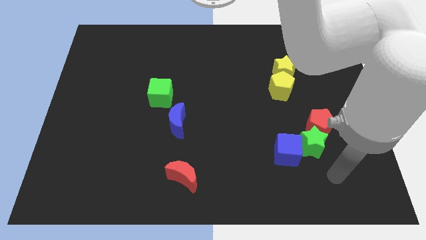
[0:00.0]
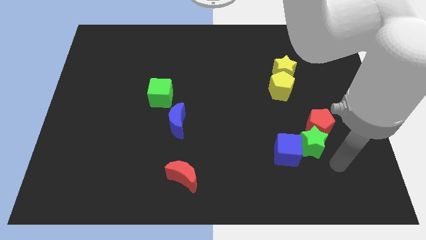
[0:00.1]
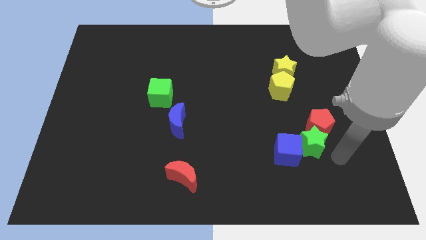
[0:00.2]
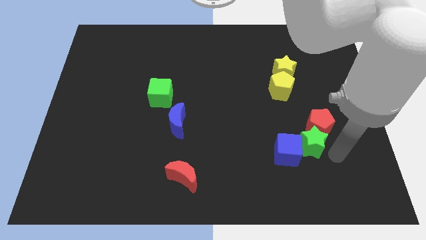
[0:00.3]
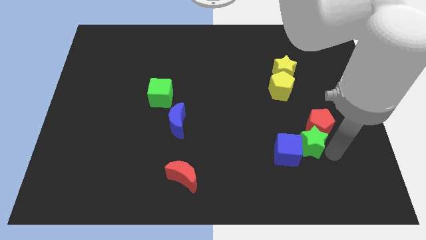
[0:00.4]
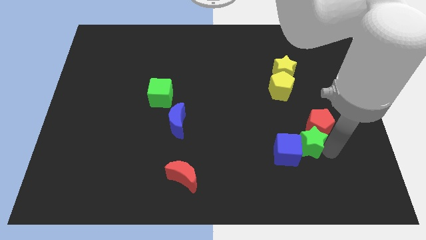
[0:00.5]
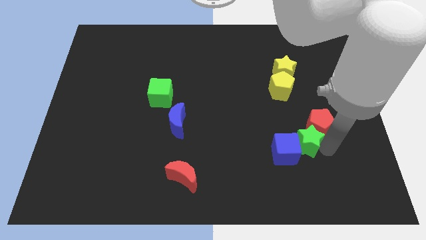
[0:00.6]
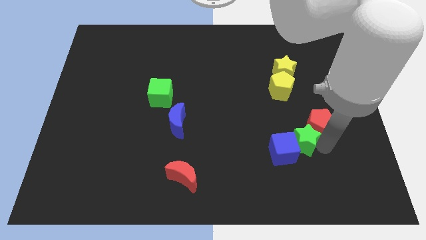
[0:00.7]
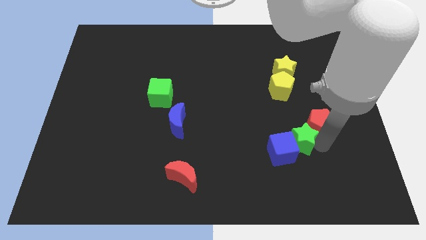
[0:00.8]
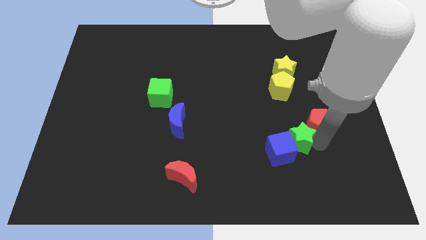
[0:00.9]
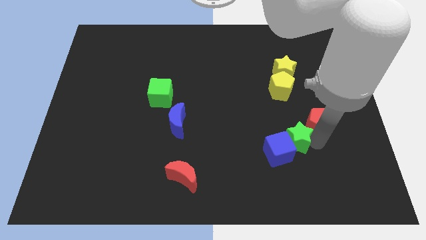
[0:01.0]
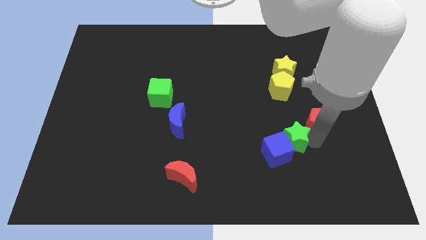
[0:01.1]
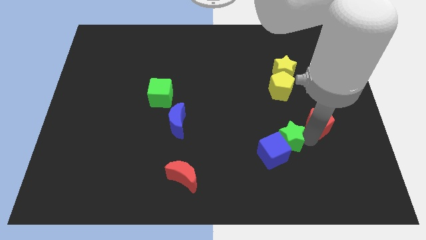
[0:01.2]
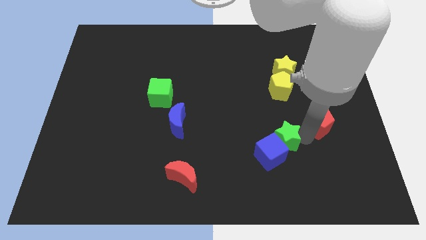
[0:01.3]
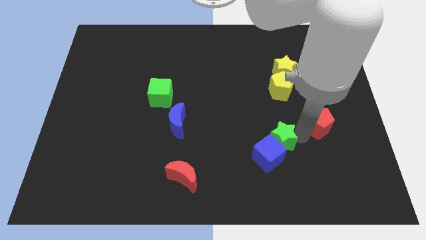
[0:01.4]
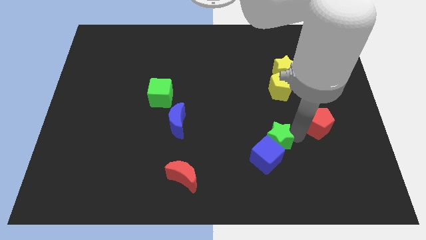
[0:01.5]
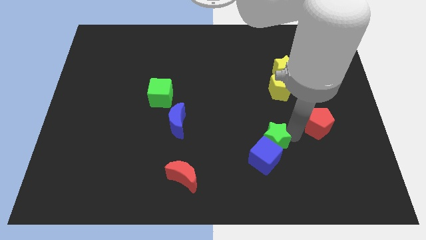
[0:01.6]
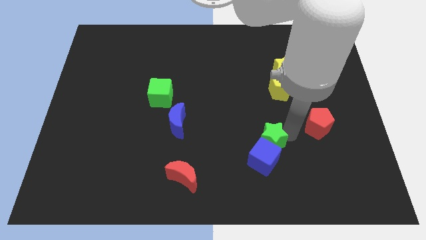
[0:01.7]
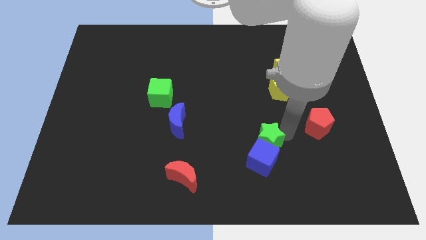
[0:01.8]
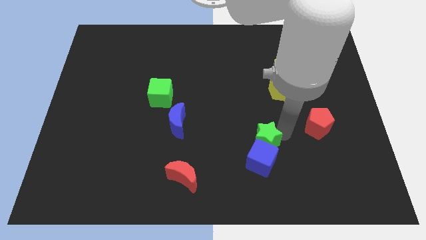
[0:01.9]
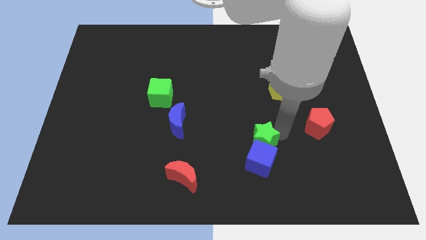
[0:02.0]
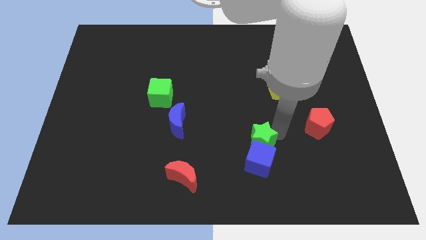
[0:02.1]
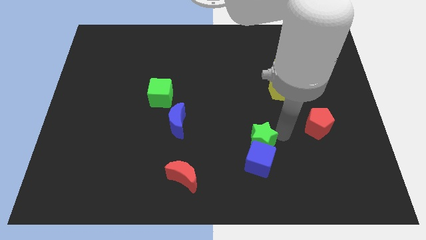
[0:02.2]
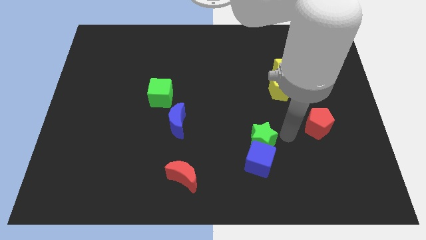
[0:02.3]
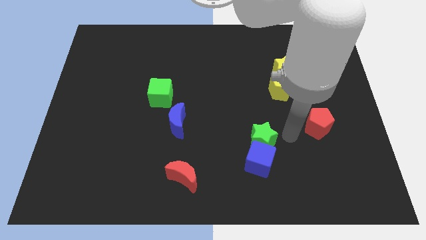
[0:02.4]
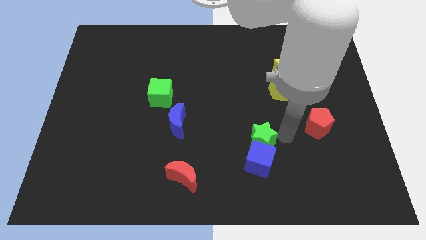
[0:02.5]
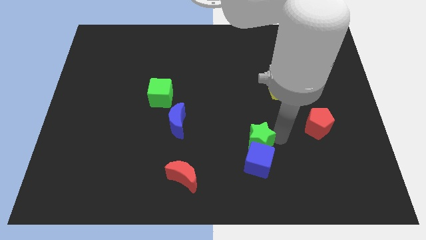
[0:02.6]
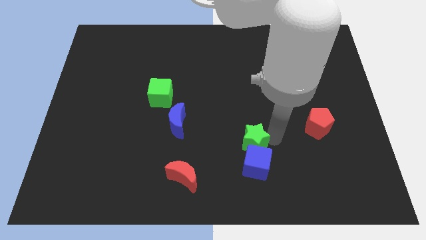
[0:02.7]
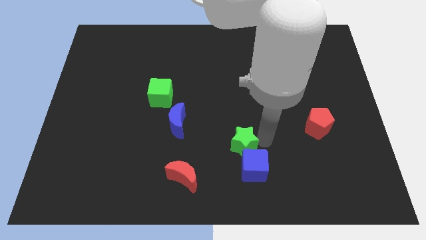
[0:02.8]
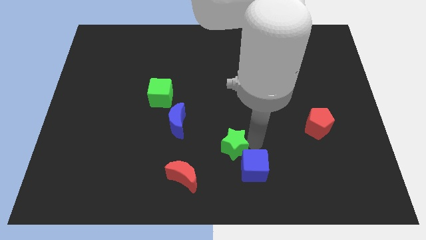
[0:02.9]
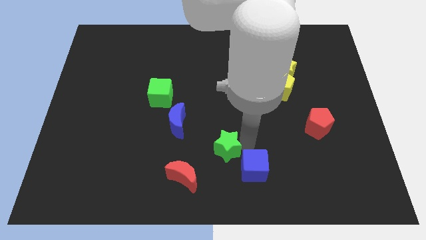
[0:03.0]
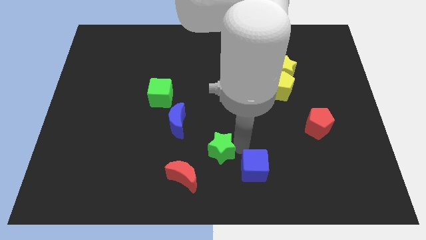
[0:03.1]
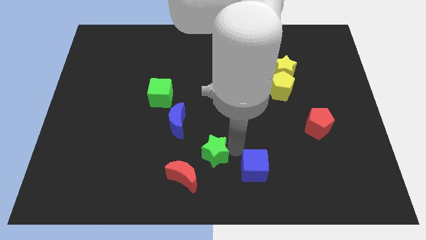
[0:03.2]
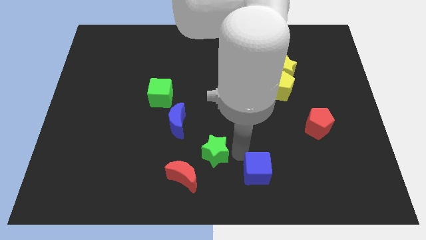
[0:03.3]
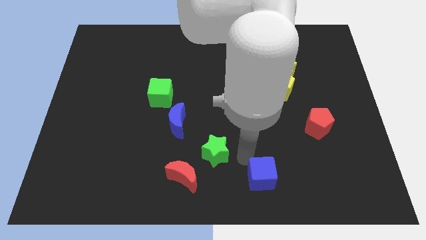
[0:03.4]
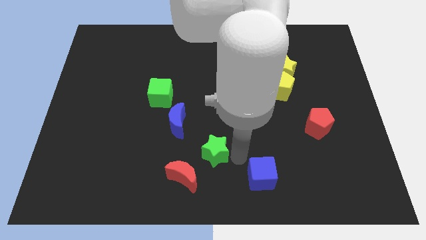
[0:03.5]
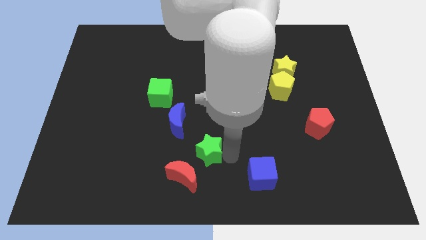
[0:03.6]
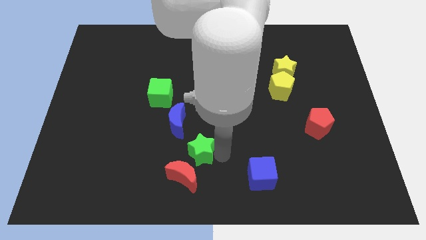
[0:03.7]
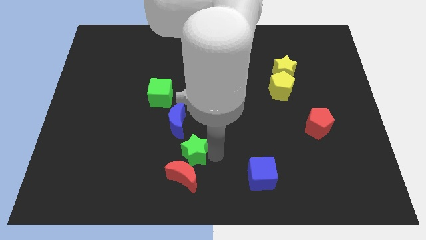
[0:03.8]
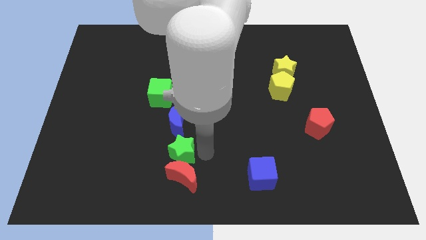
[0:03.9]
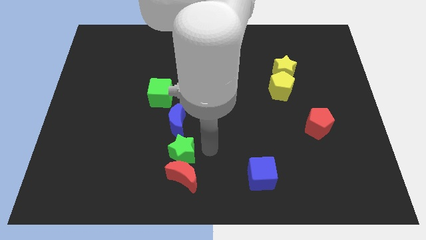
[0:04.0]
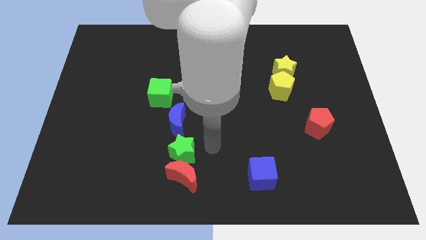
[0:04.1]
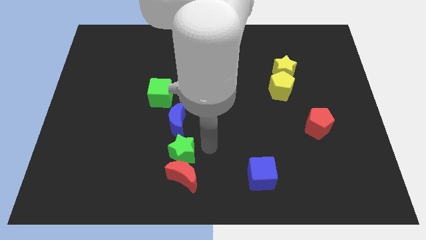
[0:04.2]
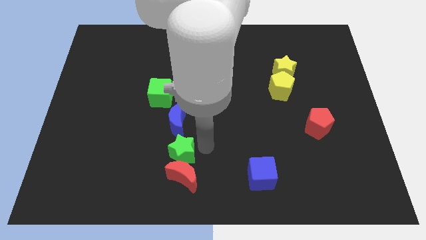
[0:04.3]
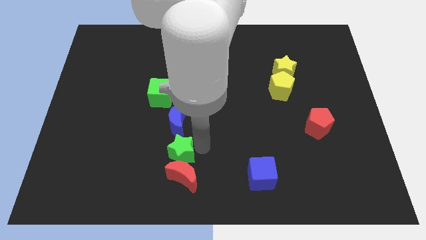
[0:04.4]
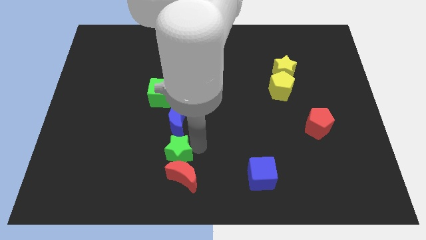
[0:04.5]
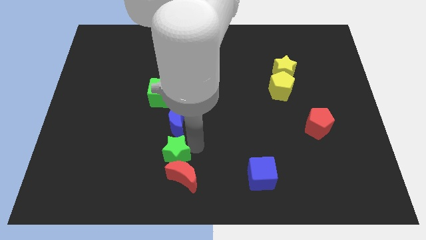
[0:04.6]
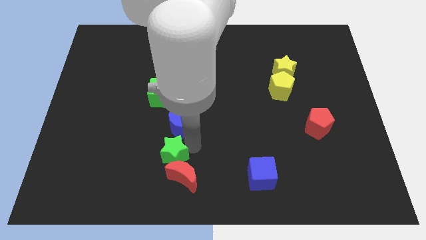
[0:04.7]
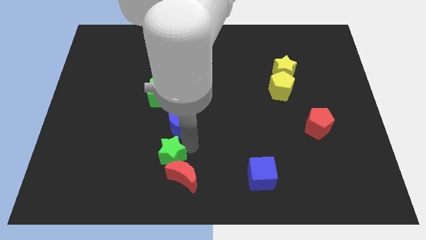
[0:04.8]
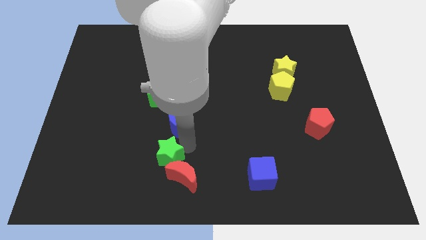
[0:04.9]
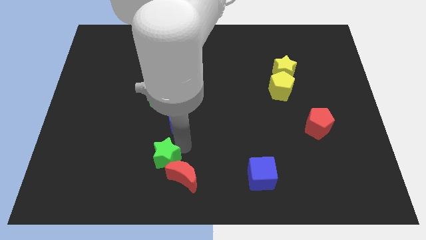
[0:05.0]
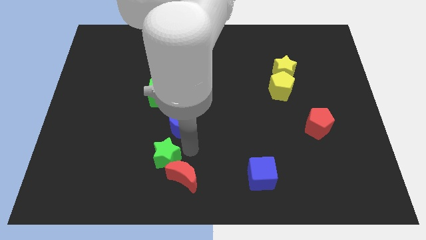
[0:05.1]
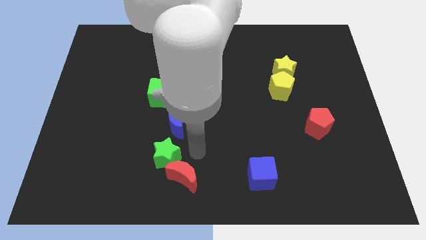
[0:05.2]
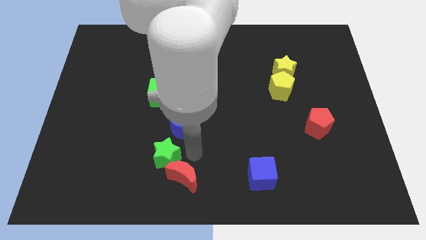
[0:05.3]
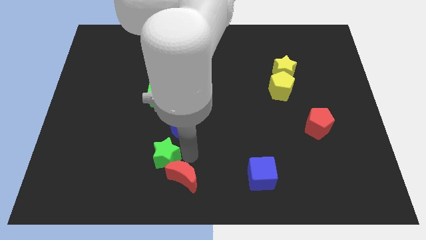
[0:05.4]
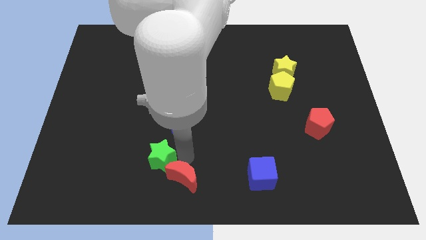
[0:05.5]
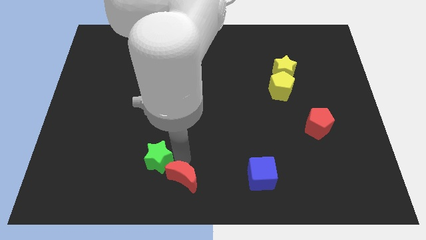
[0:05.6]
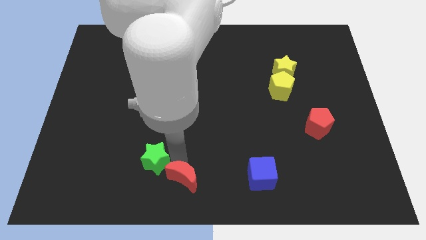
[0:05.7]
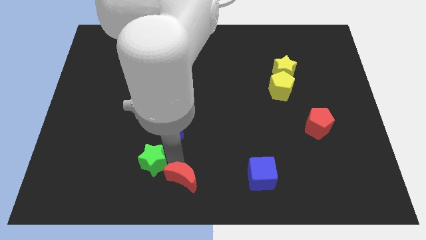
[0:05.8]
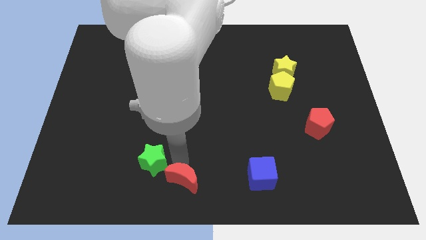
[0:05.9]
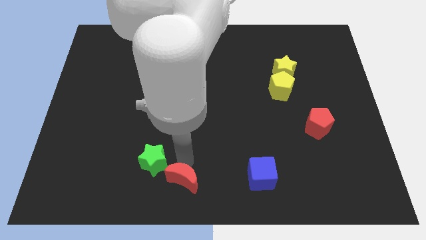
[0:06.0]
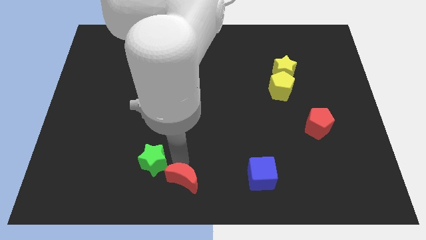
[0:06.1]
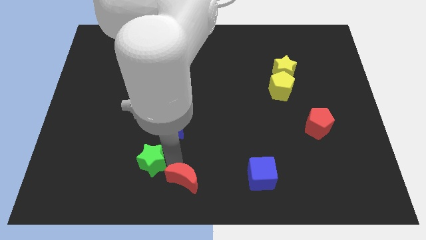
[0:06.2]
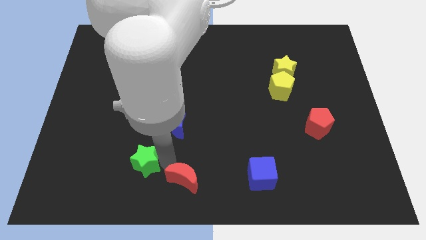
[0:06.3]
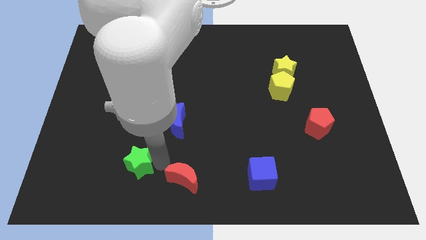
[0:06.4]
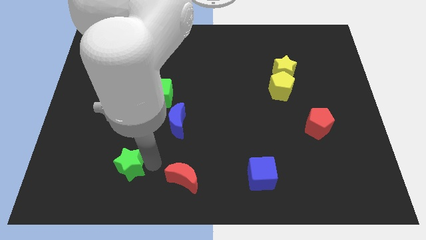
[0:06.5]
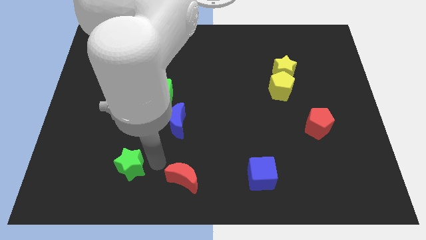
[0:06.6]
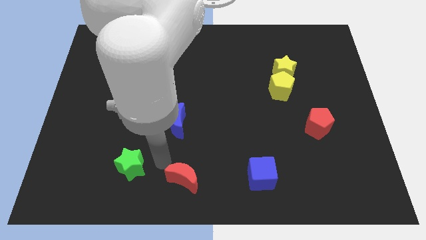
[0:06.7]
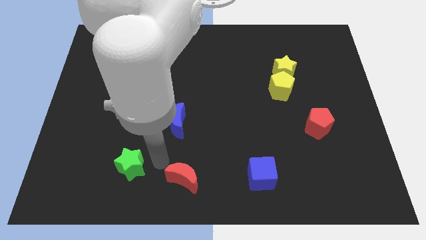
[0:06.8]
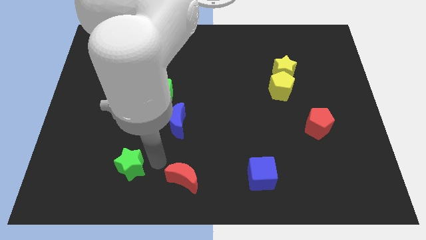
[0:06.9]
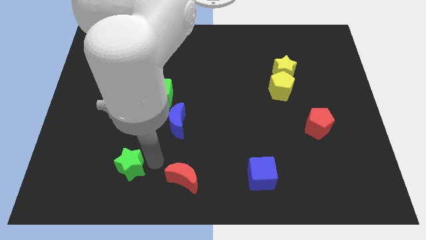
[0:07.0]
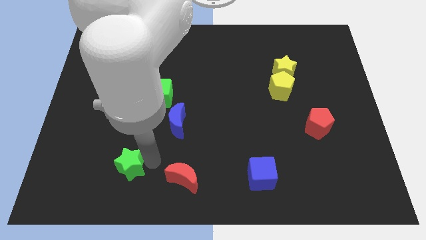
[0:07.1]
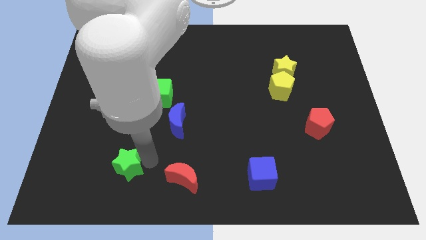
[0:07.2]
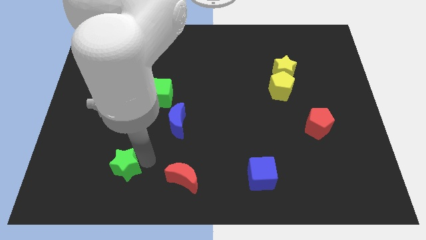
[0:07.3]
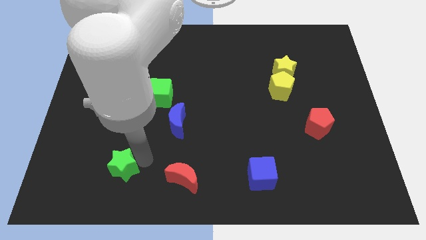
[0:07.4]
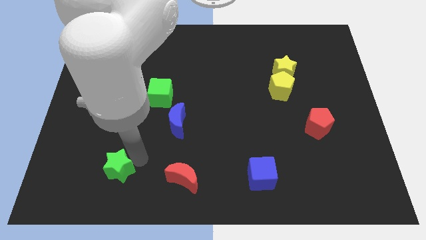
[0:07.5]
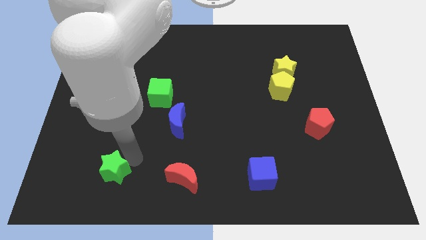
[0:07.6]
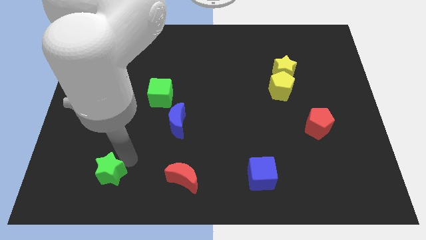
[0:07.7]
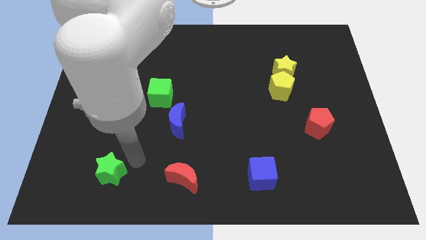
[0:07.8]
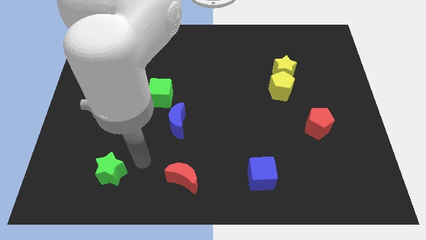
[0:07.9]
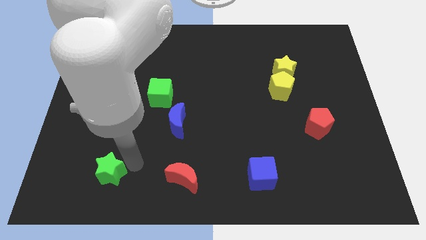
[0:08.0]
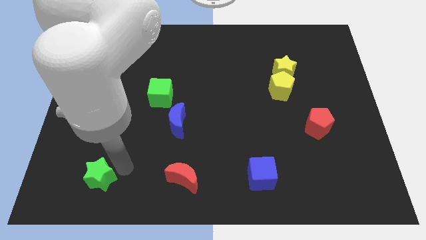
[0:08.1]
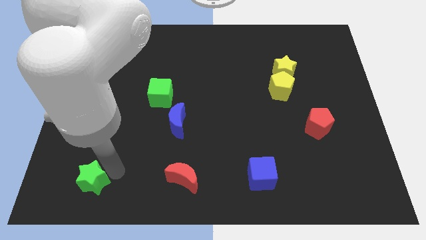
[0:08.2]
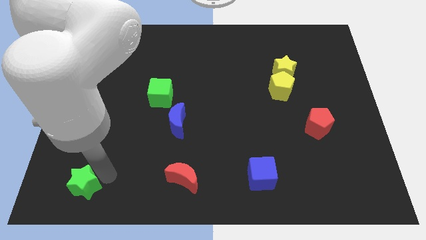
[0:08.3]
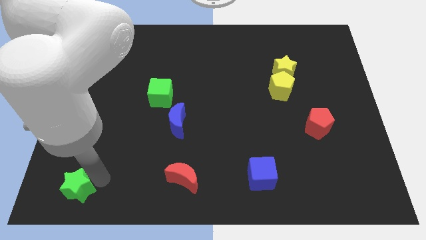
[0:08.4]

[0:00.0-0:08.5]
move the green star to the lower left corner
